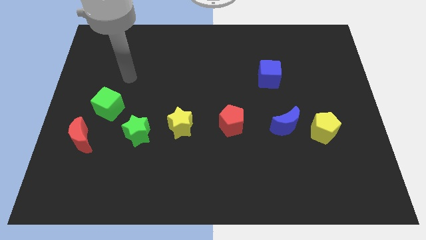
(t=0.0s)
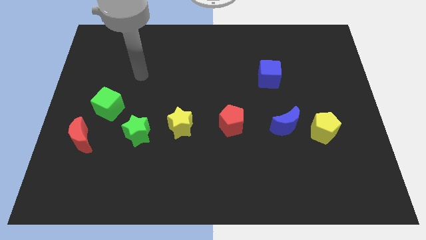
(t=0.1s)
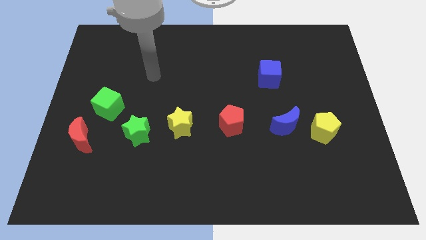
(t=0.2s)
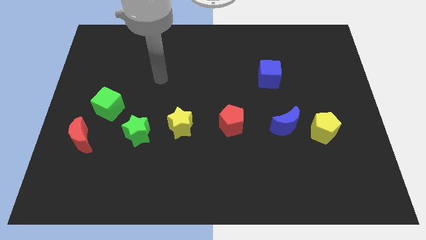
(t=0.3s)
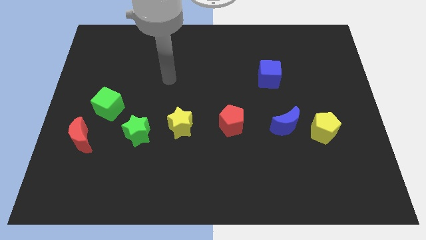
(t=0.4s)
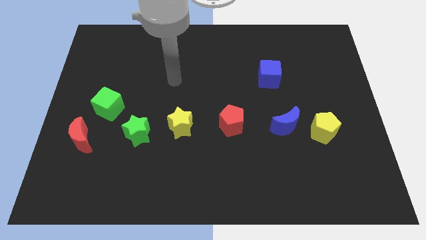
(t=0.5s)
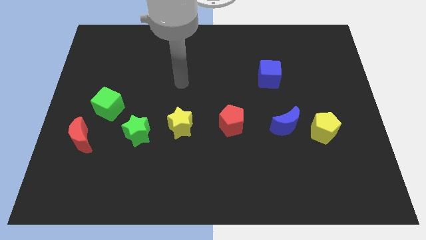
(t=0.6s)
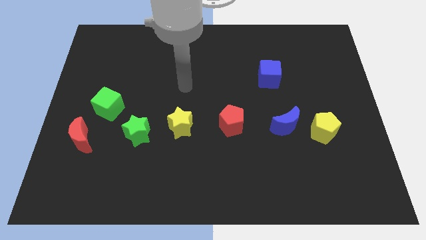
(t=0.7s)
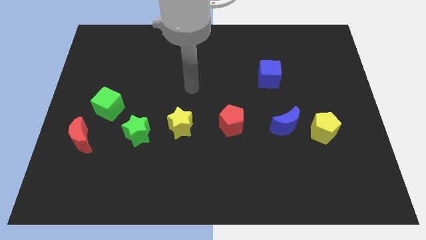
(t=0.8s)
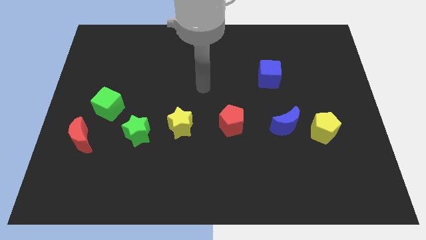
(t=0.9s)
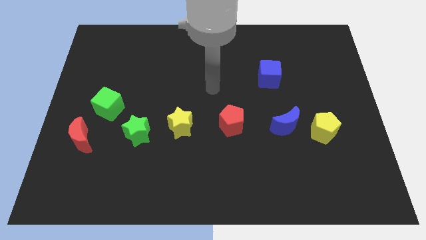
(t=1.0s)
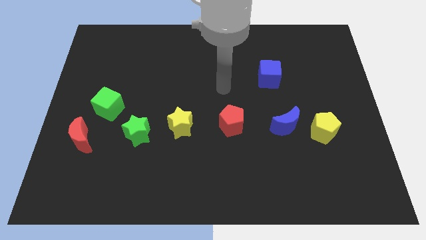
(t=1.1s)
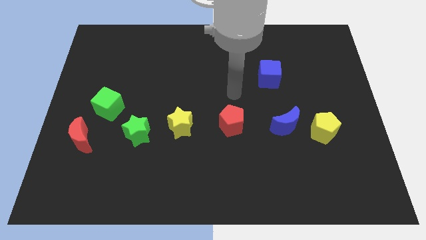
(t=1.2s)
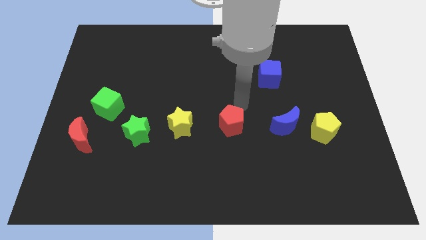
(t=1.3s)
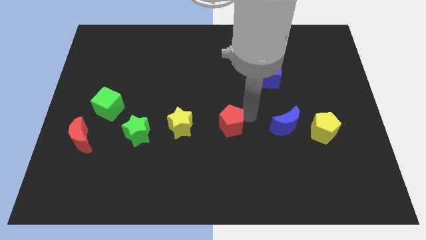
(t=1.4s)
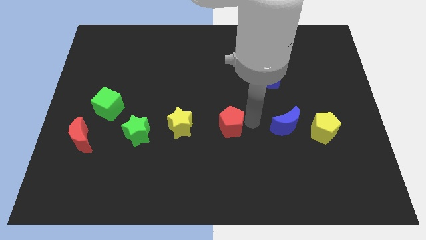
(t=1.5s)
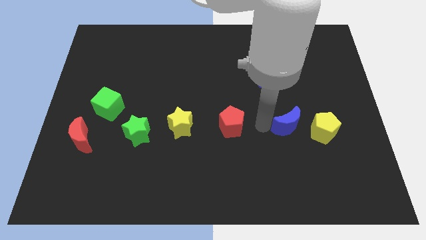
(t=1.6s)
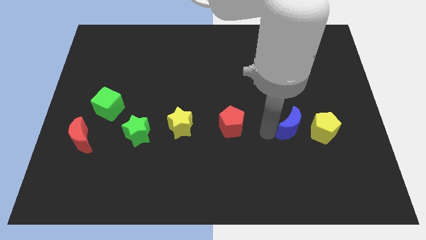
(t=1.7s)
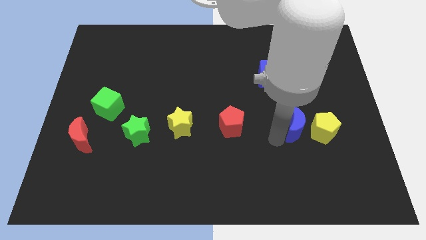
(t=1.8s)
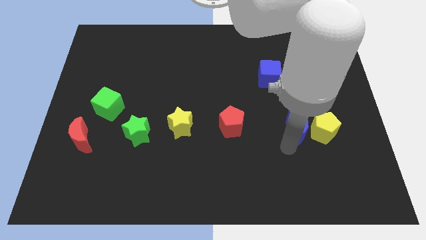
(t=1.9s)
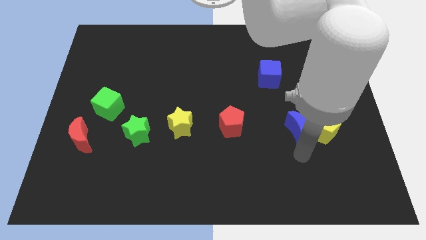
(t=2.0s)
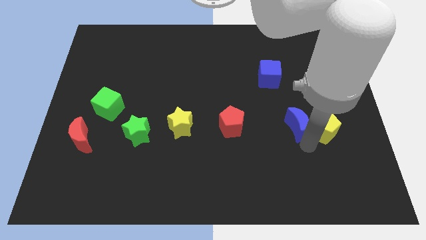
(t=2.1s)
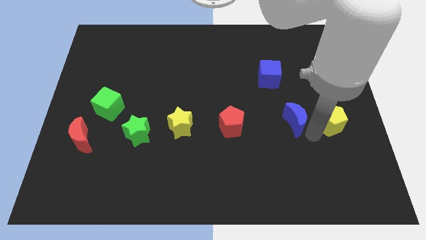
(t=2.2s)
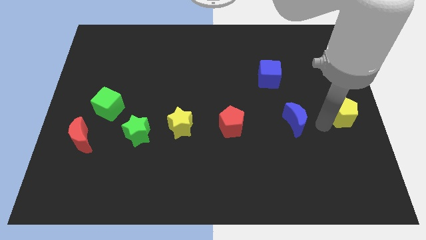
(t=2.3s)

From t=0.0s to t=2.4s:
move the blue moon away from the yellow pentagon

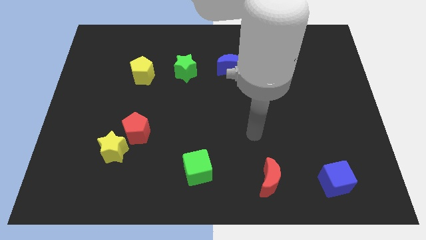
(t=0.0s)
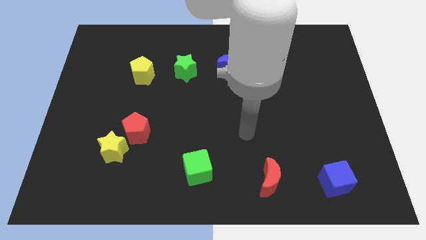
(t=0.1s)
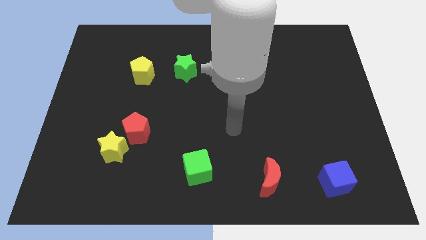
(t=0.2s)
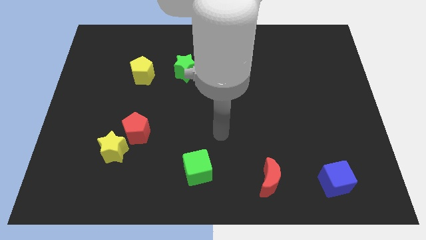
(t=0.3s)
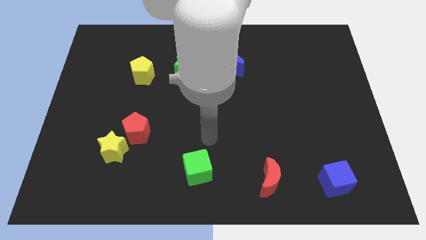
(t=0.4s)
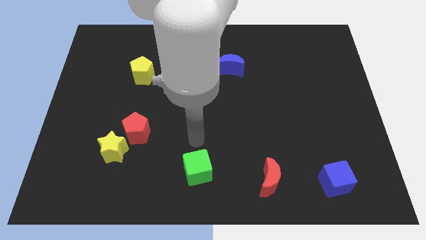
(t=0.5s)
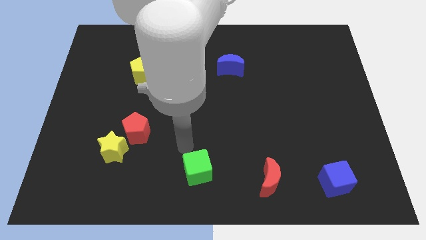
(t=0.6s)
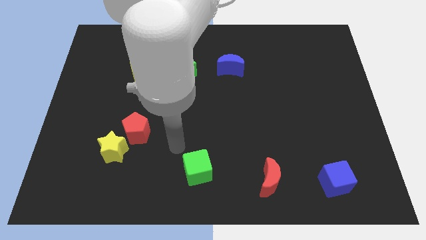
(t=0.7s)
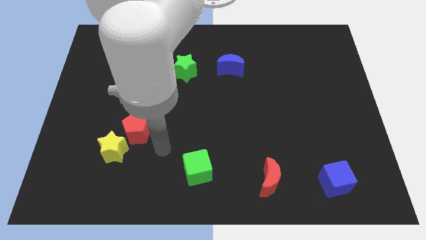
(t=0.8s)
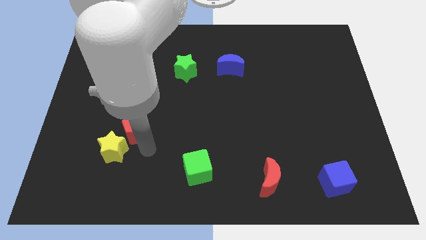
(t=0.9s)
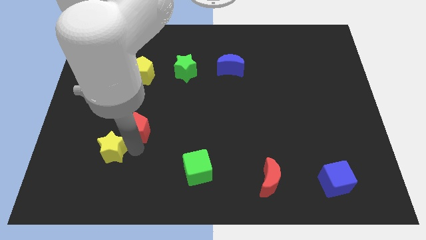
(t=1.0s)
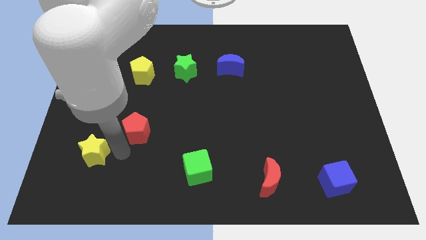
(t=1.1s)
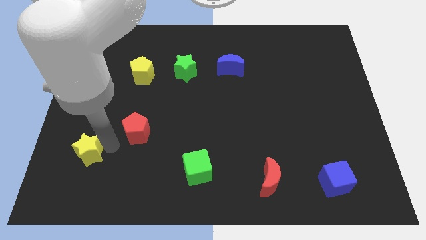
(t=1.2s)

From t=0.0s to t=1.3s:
move the red pentagon away from the yellow star

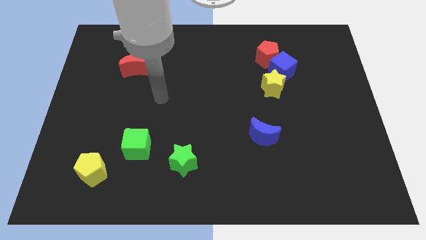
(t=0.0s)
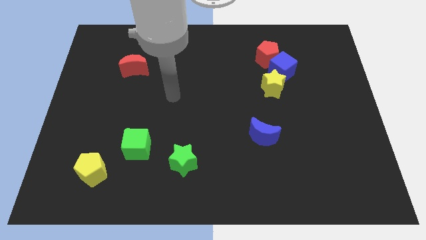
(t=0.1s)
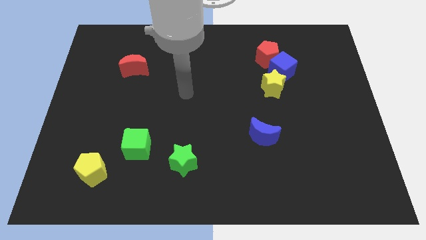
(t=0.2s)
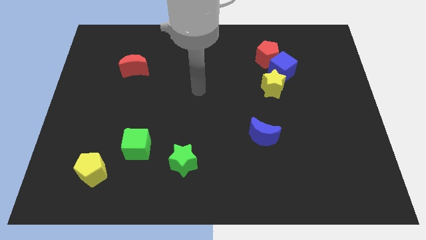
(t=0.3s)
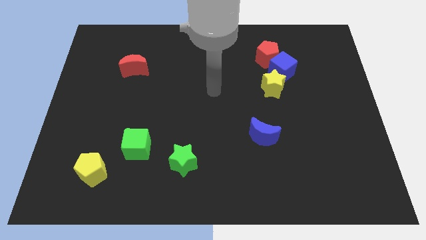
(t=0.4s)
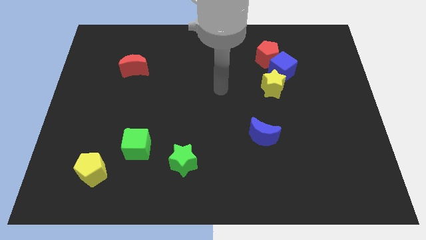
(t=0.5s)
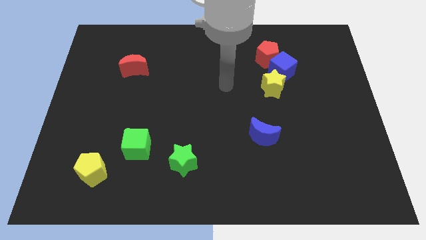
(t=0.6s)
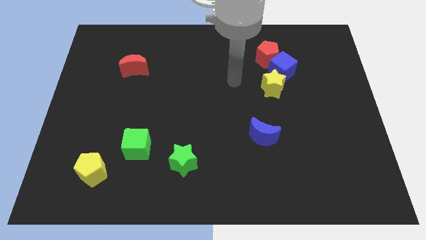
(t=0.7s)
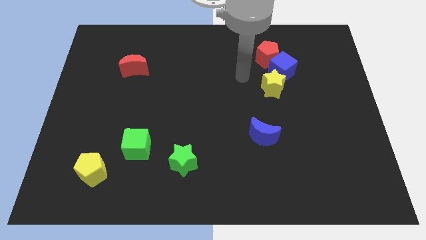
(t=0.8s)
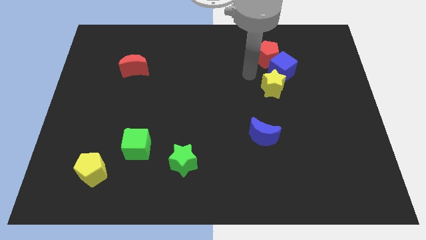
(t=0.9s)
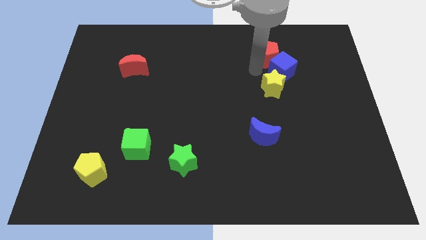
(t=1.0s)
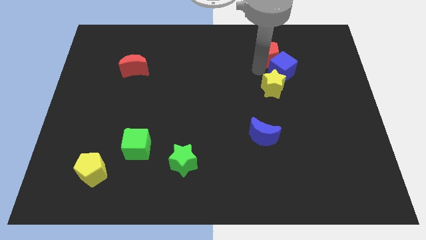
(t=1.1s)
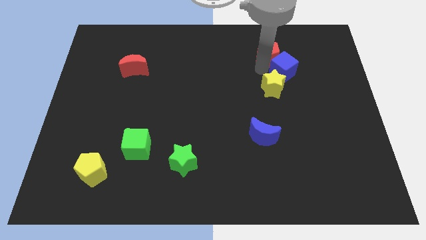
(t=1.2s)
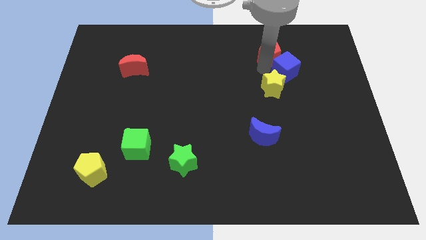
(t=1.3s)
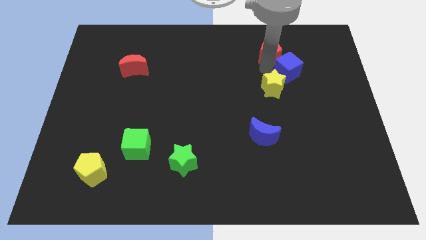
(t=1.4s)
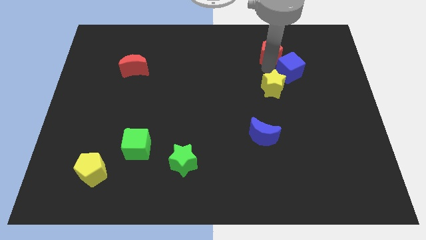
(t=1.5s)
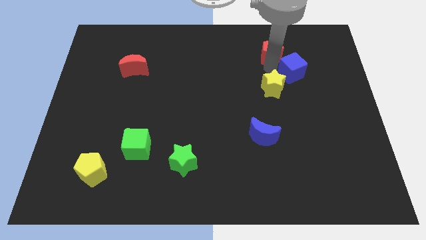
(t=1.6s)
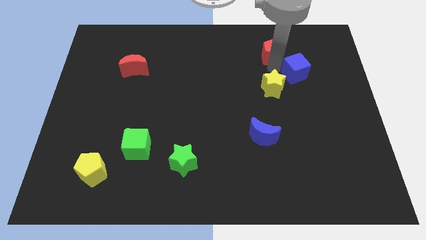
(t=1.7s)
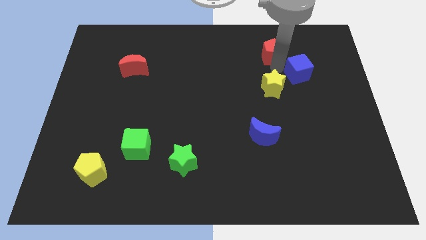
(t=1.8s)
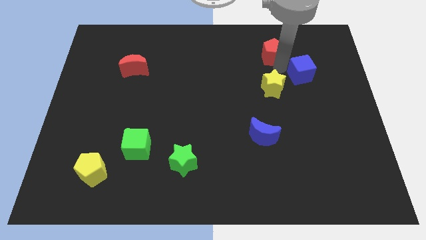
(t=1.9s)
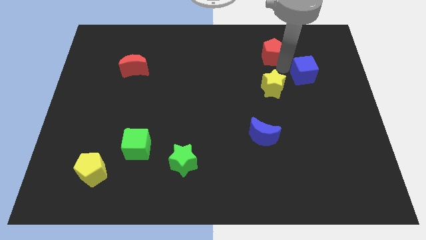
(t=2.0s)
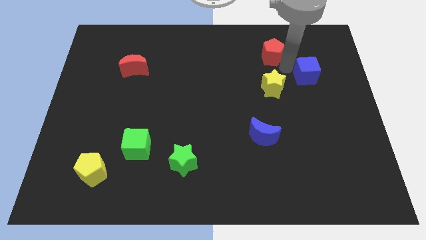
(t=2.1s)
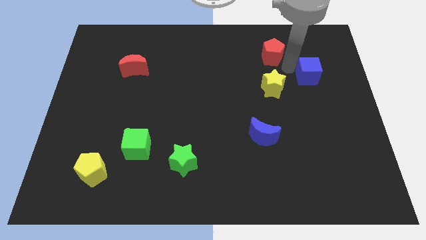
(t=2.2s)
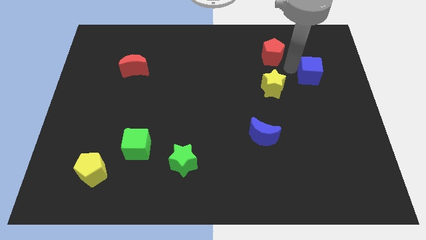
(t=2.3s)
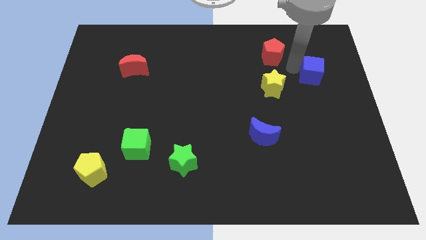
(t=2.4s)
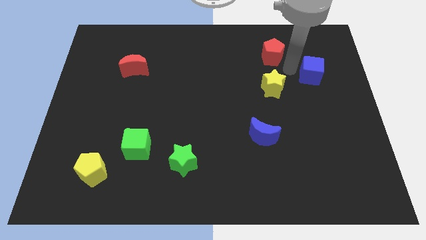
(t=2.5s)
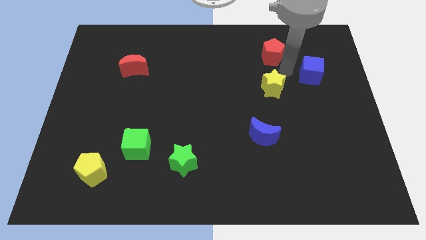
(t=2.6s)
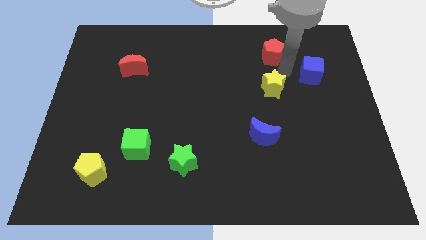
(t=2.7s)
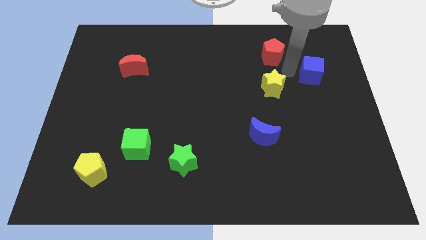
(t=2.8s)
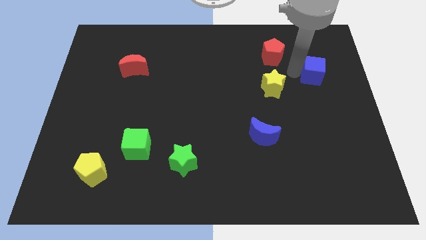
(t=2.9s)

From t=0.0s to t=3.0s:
move the blue cube away from the red pentagon and yellow star

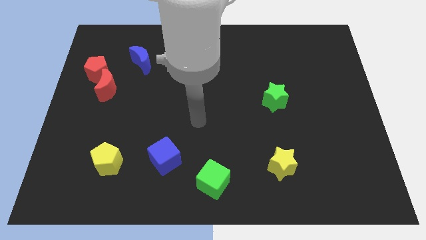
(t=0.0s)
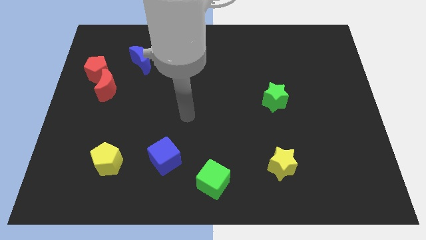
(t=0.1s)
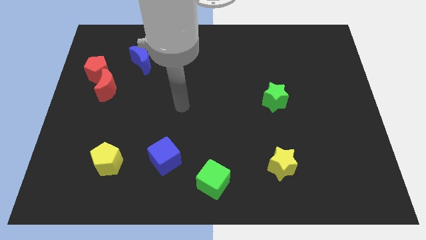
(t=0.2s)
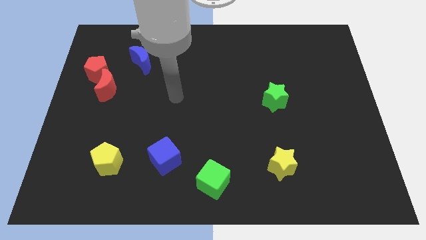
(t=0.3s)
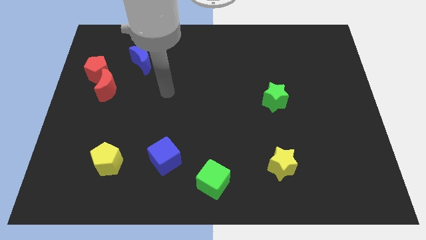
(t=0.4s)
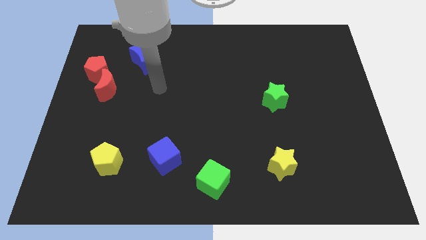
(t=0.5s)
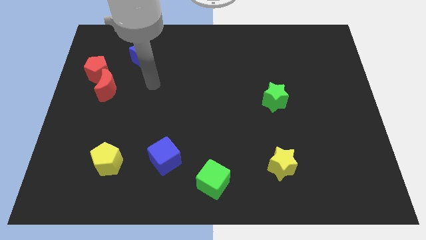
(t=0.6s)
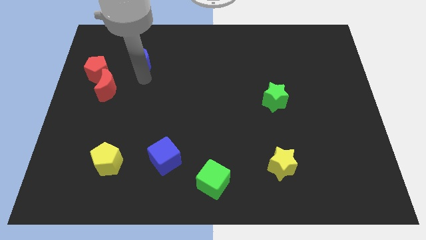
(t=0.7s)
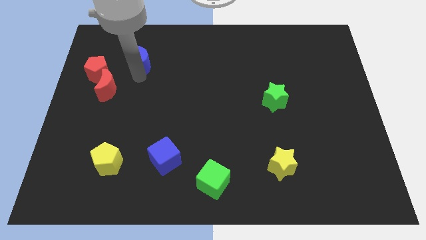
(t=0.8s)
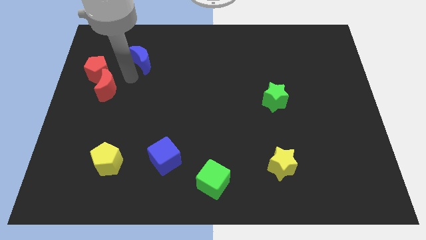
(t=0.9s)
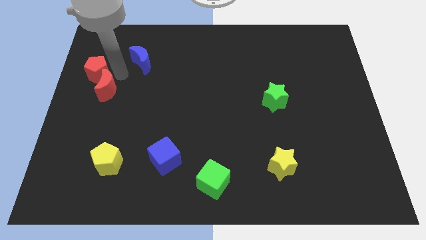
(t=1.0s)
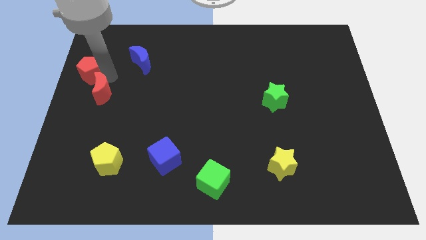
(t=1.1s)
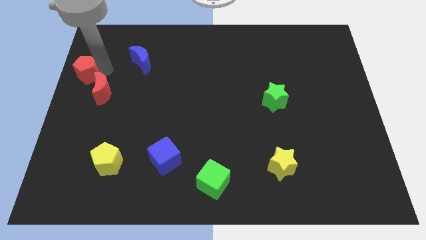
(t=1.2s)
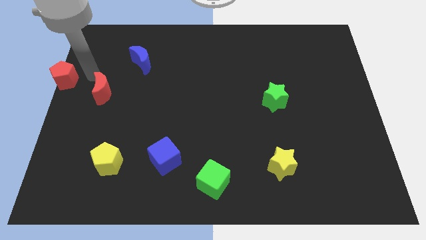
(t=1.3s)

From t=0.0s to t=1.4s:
separate the red moon from the red pentagon

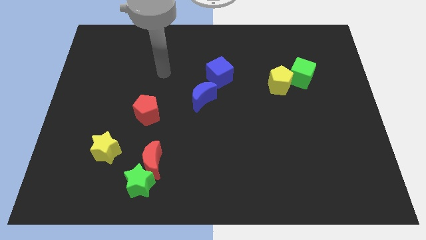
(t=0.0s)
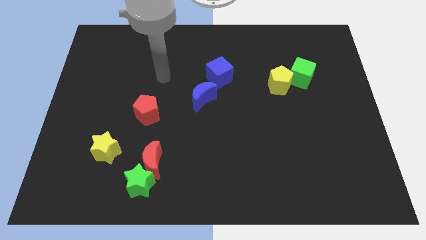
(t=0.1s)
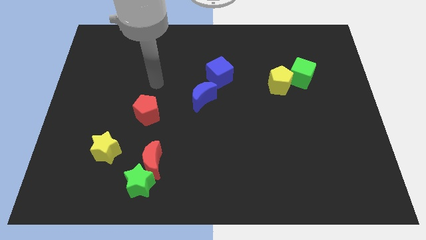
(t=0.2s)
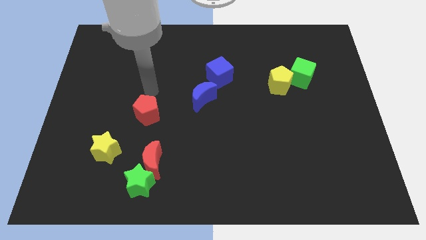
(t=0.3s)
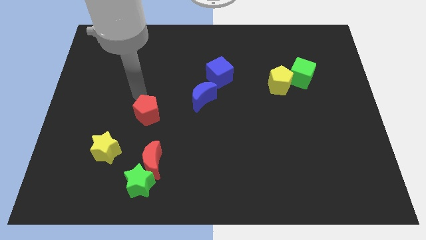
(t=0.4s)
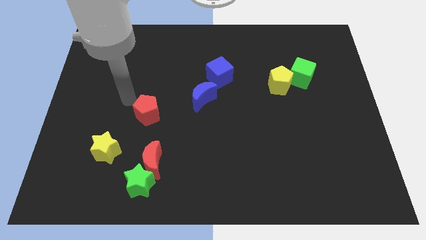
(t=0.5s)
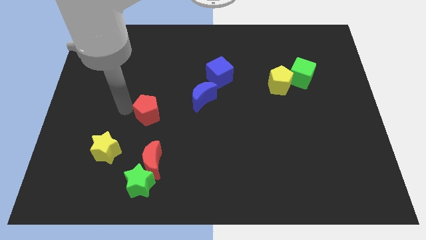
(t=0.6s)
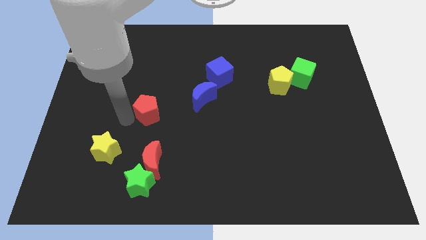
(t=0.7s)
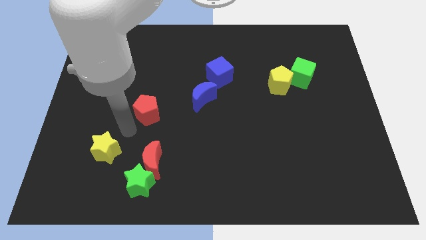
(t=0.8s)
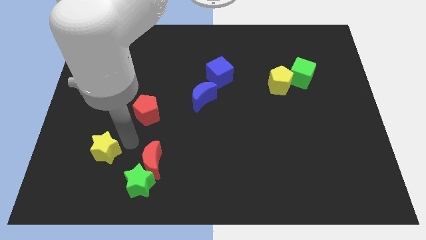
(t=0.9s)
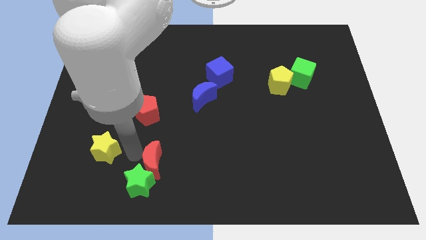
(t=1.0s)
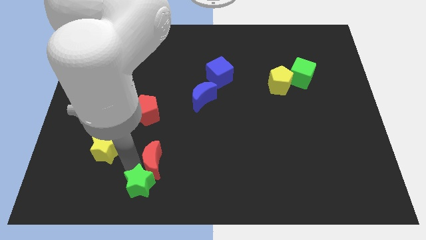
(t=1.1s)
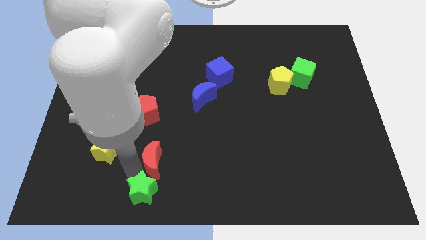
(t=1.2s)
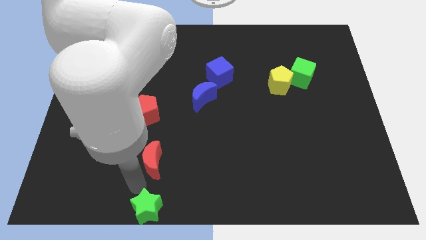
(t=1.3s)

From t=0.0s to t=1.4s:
pull the red moon apart from the green star
